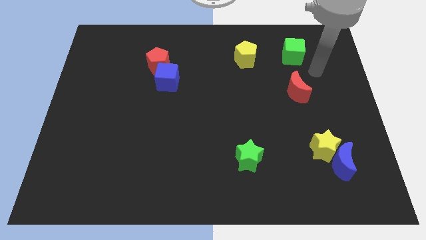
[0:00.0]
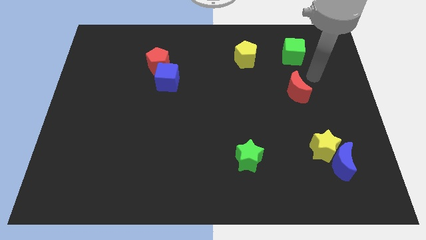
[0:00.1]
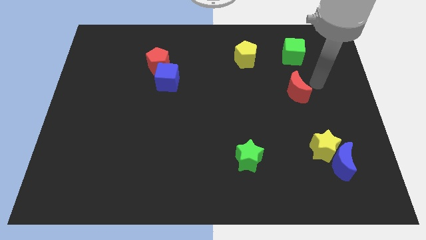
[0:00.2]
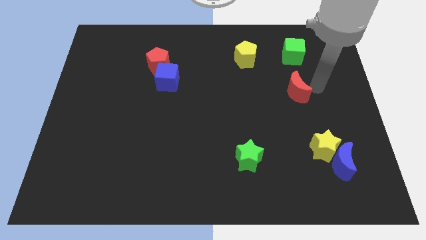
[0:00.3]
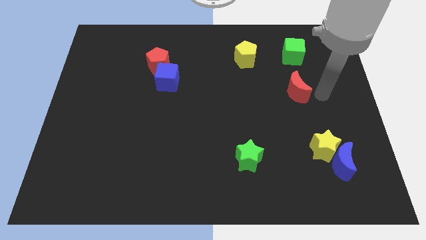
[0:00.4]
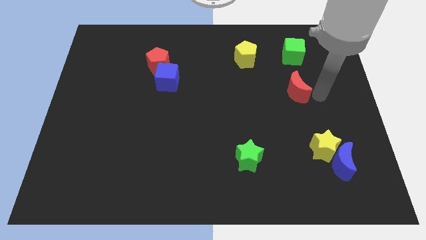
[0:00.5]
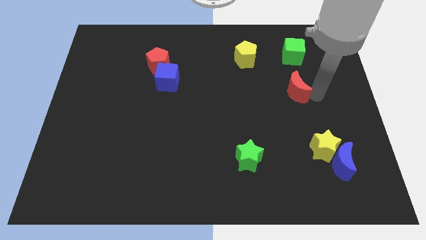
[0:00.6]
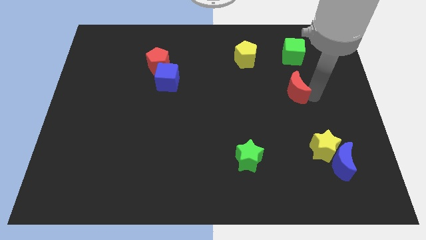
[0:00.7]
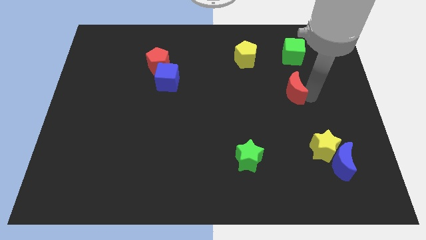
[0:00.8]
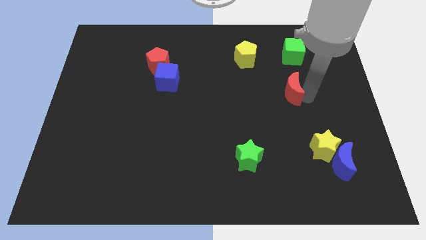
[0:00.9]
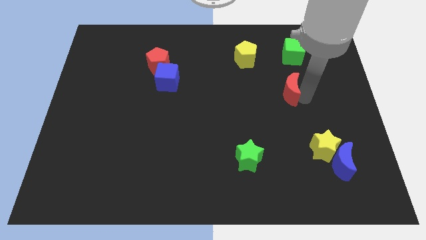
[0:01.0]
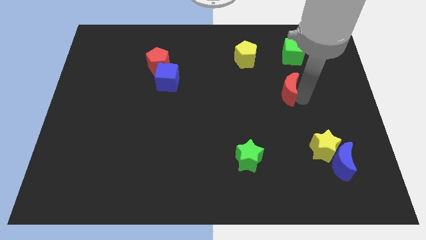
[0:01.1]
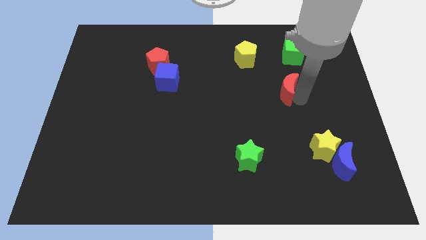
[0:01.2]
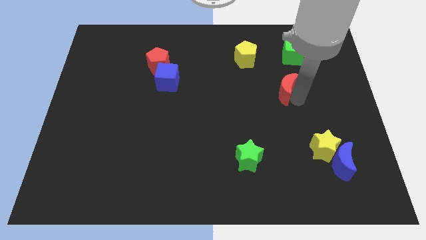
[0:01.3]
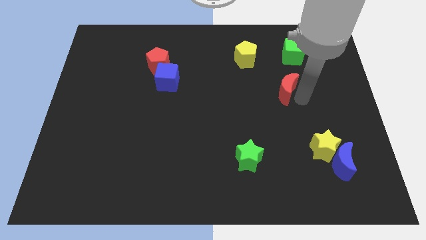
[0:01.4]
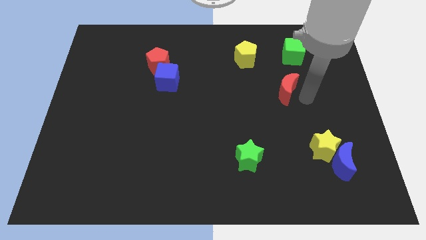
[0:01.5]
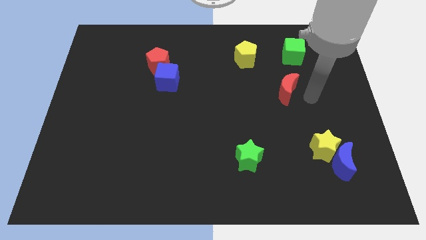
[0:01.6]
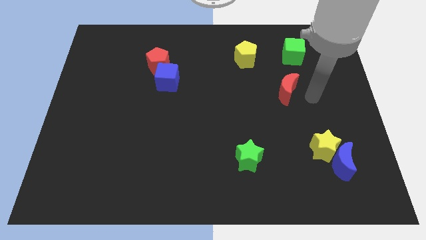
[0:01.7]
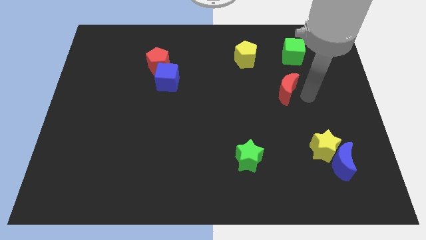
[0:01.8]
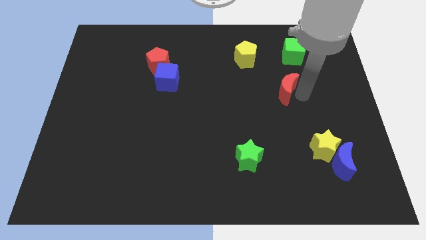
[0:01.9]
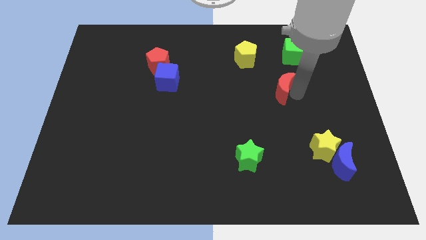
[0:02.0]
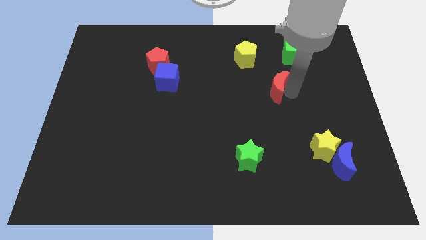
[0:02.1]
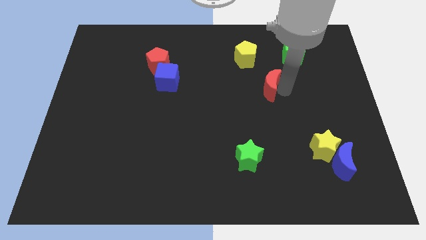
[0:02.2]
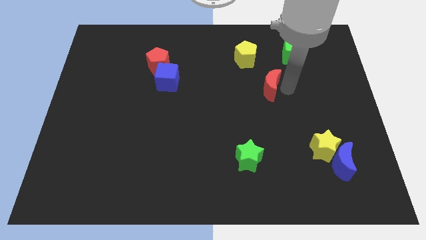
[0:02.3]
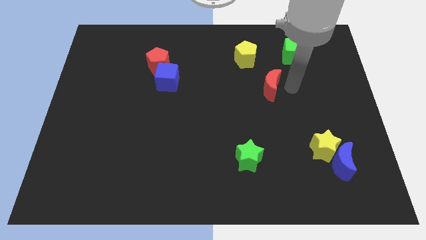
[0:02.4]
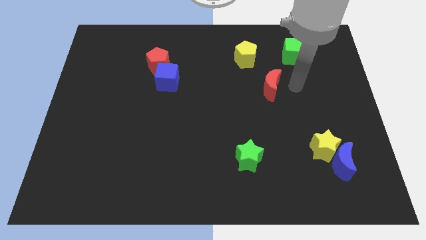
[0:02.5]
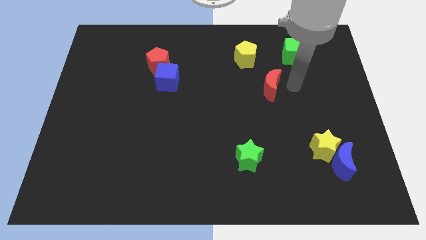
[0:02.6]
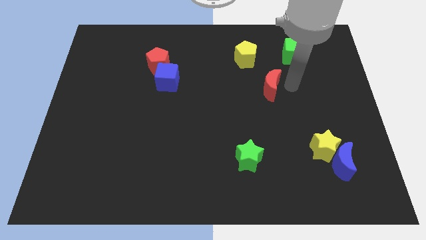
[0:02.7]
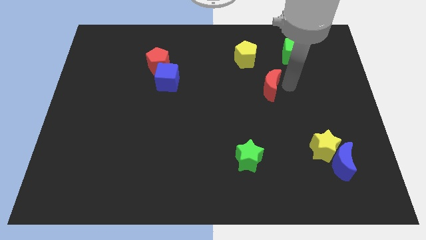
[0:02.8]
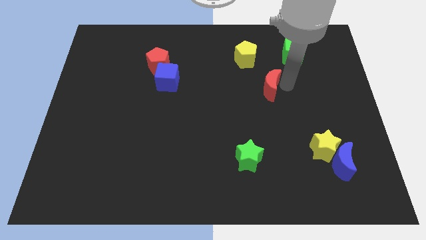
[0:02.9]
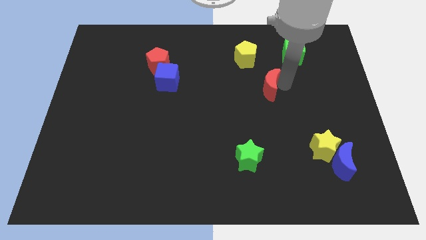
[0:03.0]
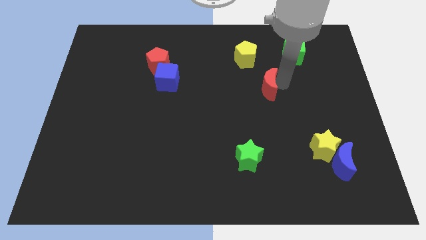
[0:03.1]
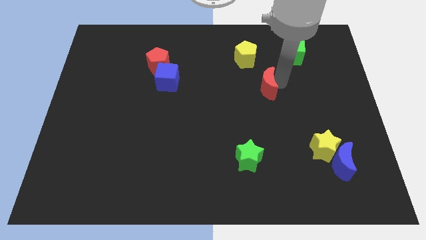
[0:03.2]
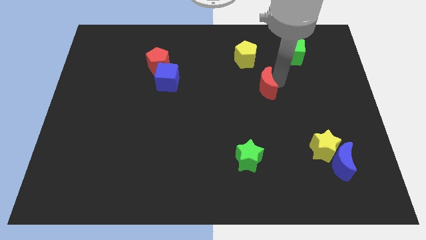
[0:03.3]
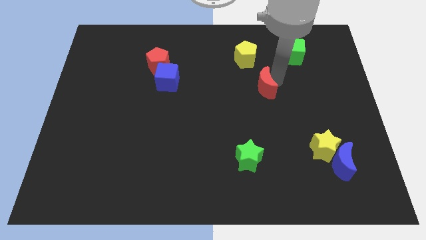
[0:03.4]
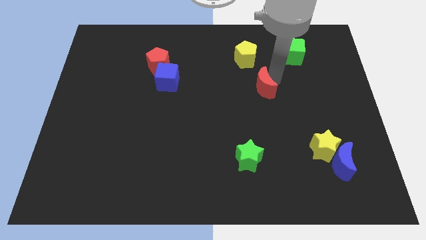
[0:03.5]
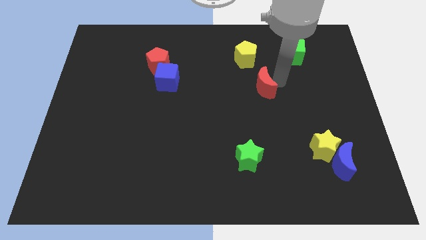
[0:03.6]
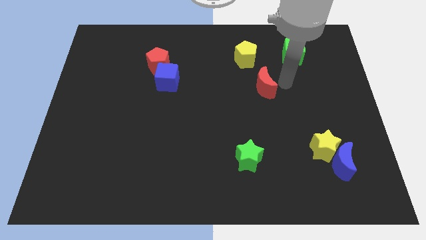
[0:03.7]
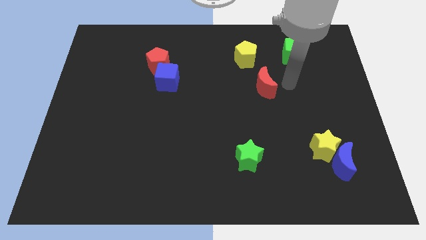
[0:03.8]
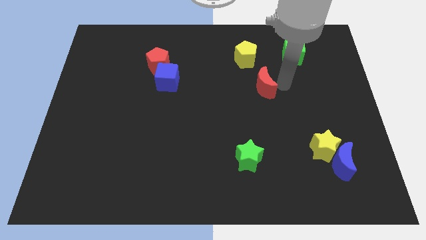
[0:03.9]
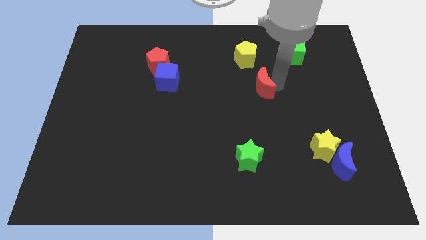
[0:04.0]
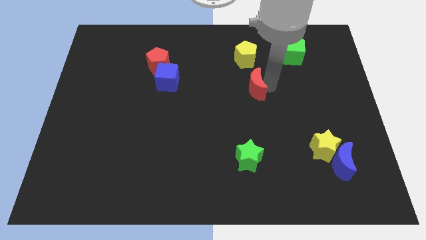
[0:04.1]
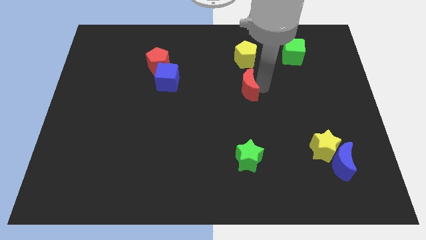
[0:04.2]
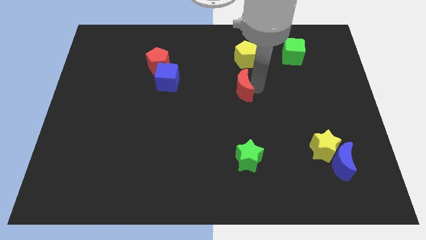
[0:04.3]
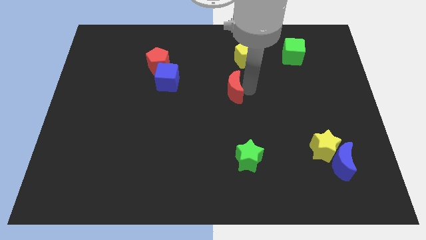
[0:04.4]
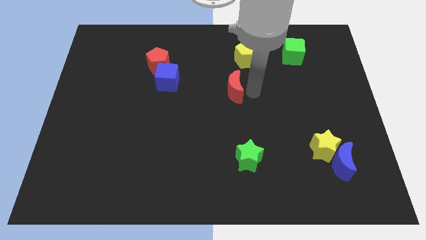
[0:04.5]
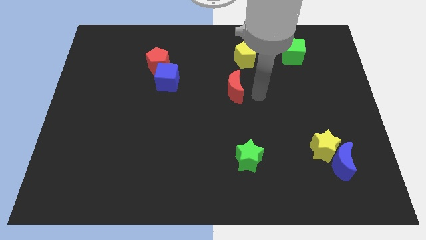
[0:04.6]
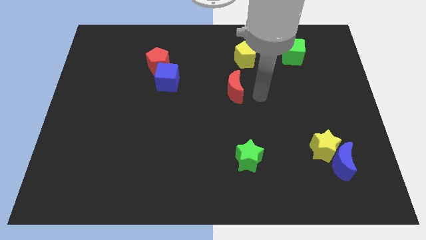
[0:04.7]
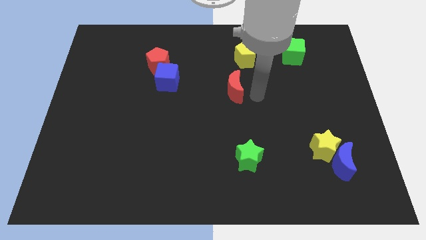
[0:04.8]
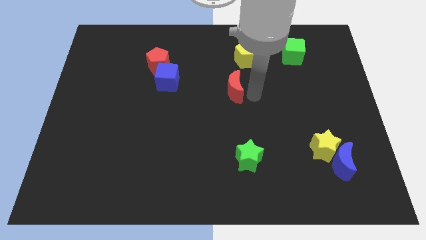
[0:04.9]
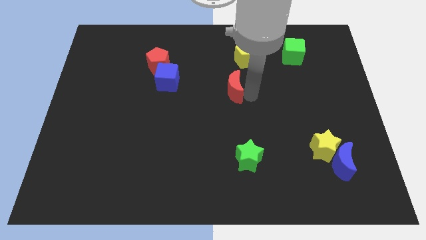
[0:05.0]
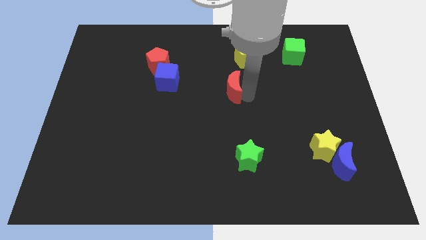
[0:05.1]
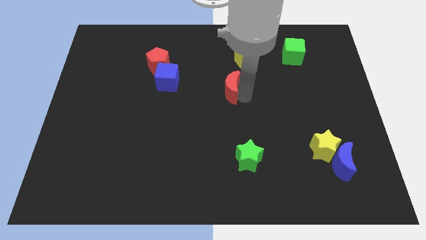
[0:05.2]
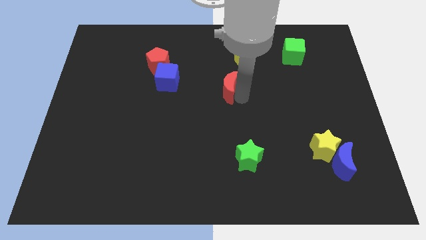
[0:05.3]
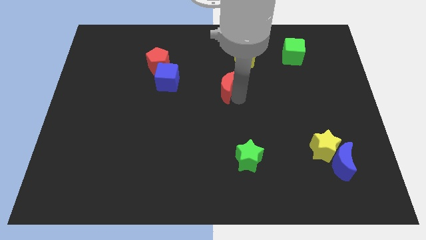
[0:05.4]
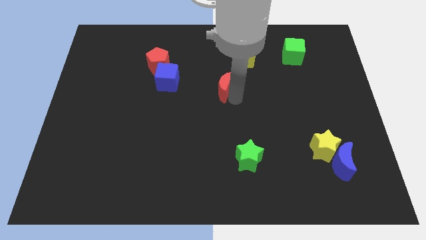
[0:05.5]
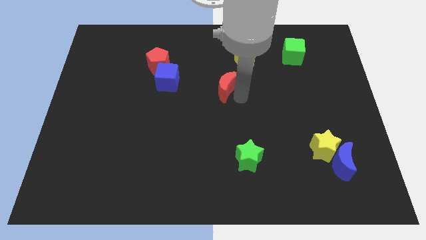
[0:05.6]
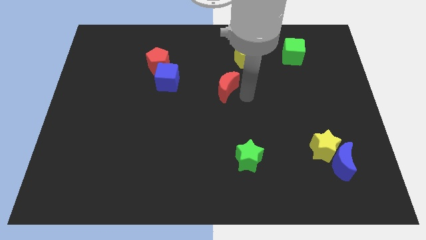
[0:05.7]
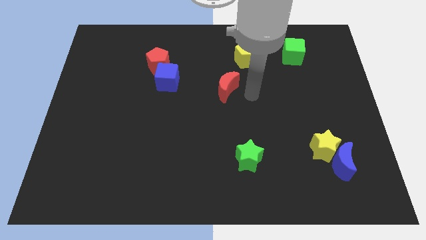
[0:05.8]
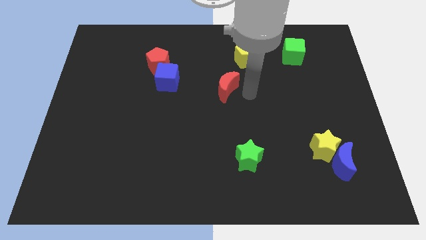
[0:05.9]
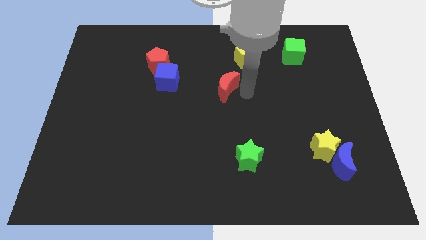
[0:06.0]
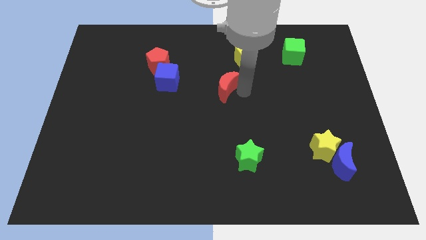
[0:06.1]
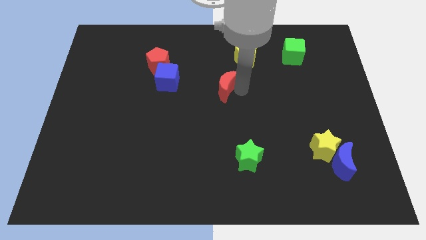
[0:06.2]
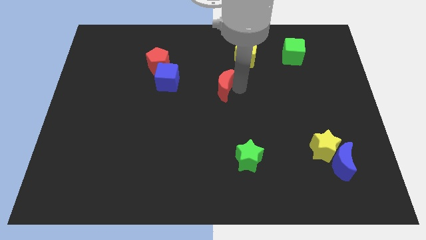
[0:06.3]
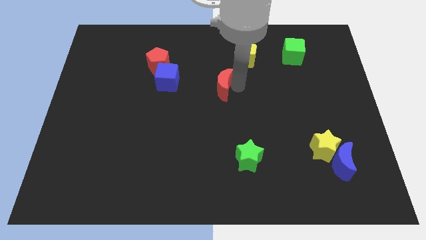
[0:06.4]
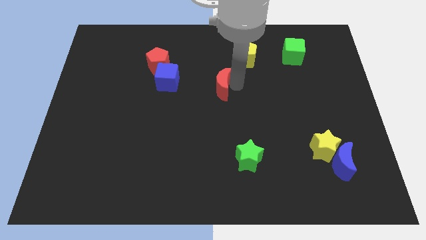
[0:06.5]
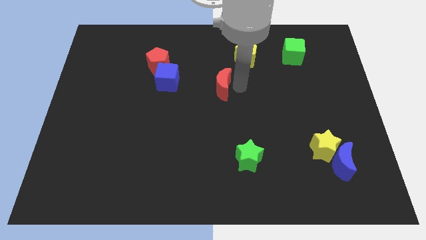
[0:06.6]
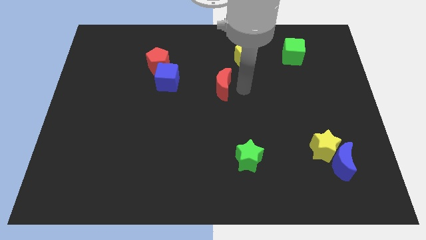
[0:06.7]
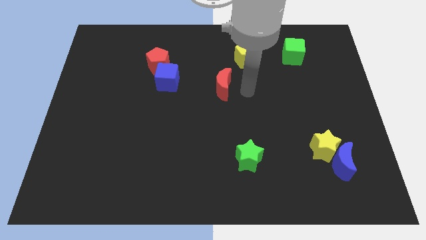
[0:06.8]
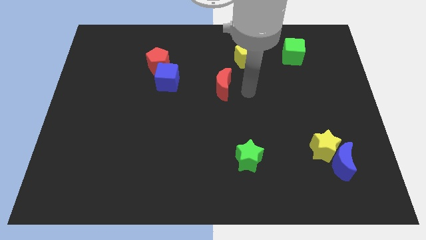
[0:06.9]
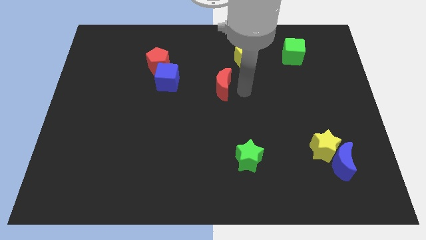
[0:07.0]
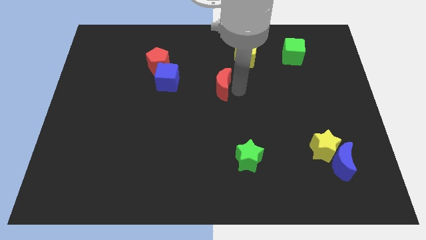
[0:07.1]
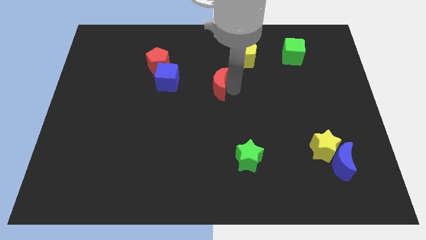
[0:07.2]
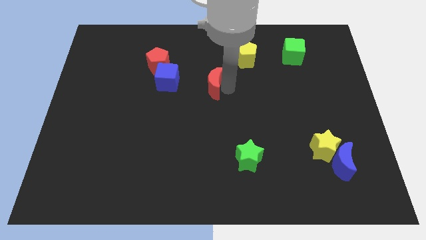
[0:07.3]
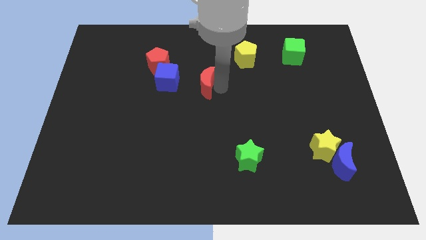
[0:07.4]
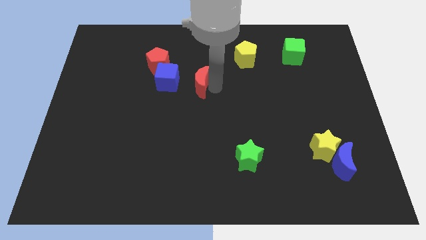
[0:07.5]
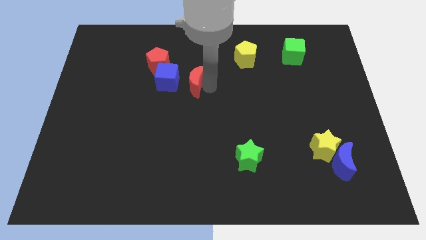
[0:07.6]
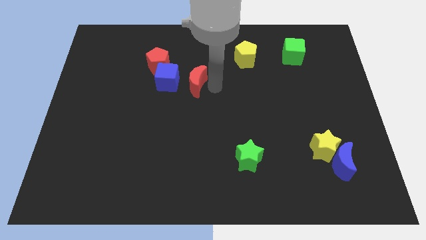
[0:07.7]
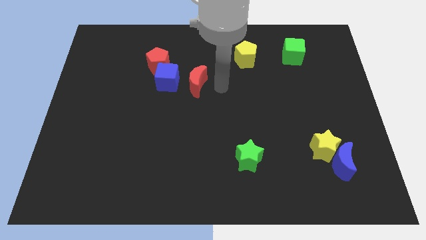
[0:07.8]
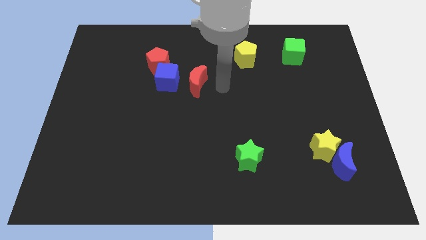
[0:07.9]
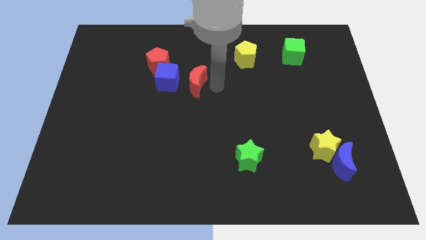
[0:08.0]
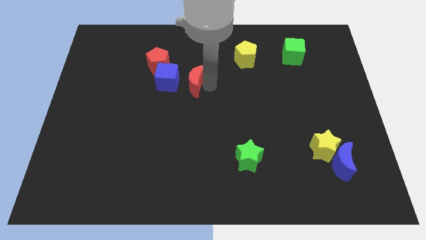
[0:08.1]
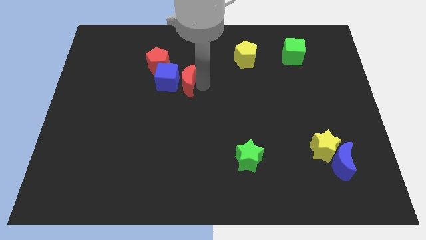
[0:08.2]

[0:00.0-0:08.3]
move the red moon to the blue cube

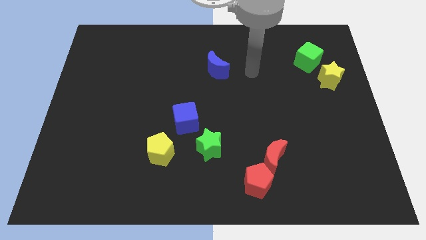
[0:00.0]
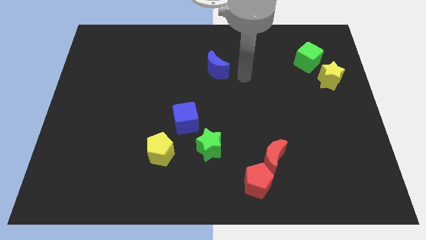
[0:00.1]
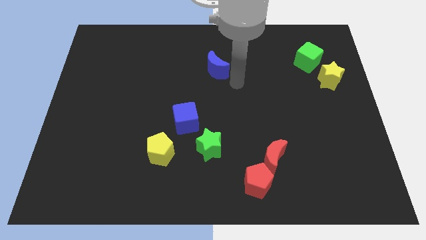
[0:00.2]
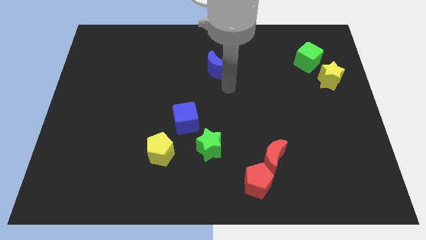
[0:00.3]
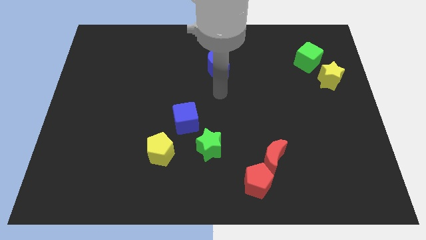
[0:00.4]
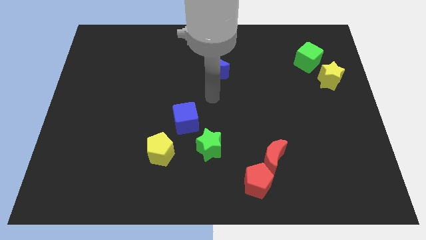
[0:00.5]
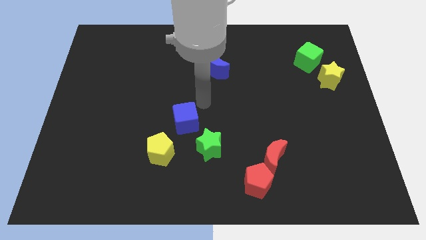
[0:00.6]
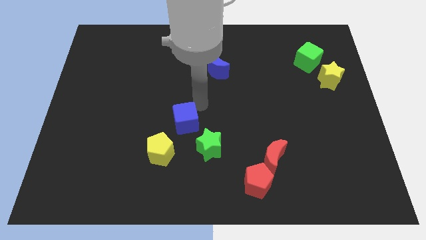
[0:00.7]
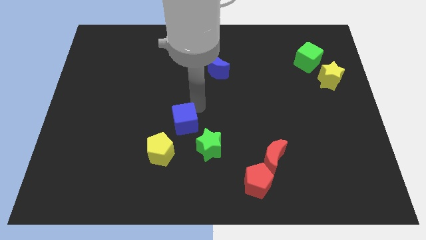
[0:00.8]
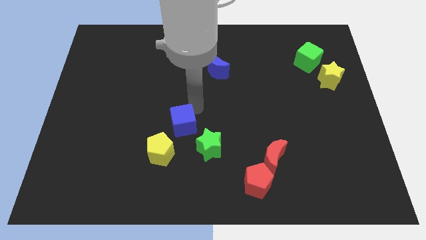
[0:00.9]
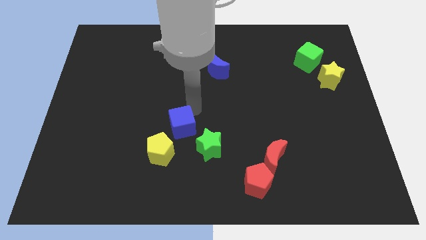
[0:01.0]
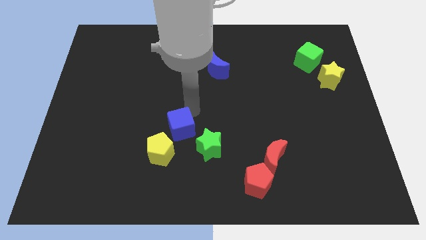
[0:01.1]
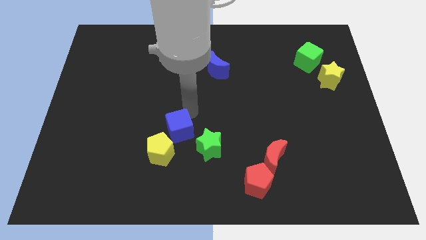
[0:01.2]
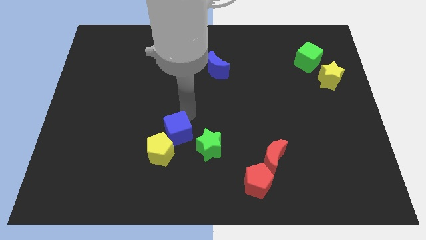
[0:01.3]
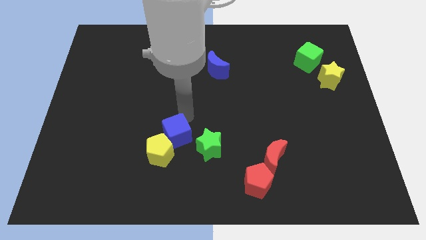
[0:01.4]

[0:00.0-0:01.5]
move the blue cube towards the yellow pentagon
